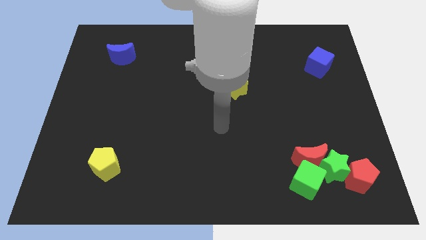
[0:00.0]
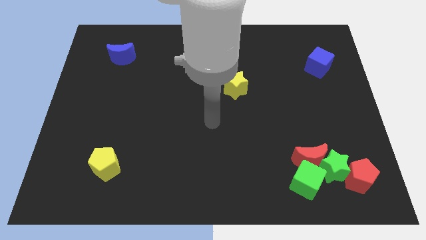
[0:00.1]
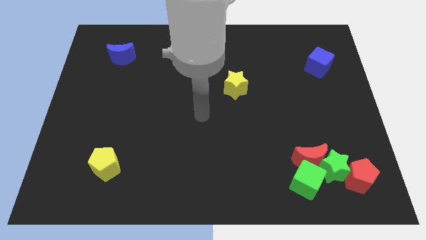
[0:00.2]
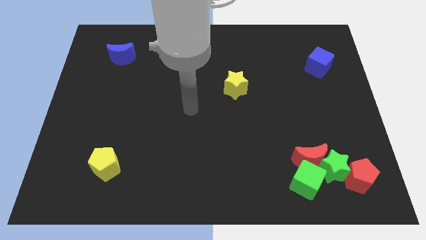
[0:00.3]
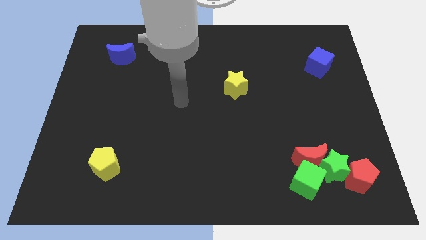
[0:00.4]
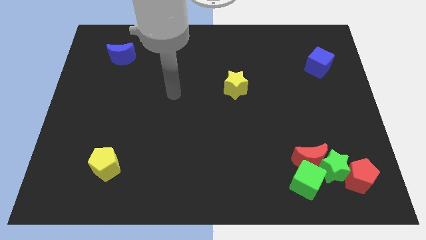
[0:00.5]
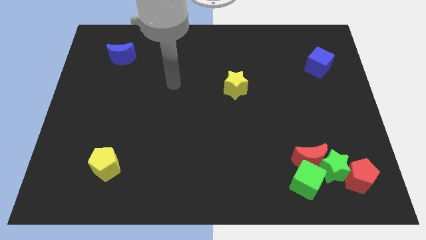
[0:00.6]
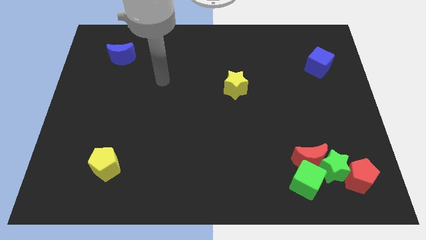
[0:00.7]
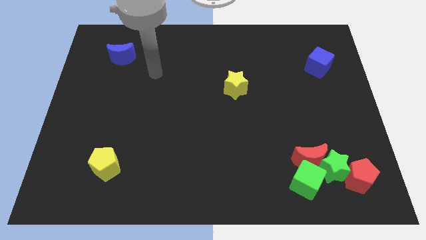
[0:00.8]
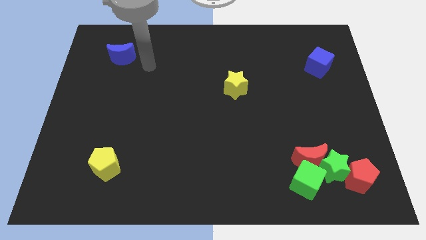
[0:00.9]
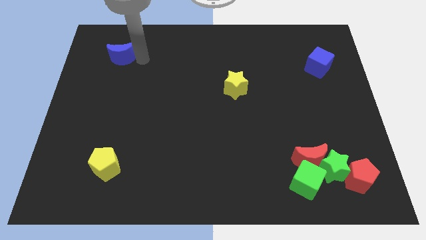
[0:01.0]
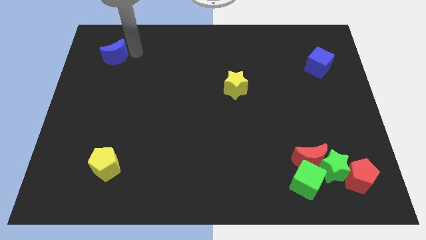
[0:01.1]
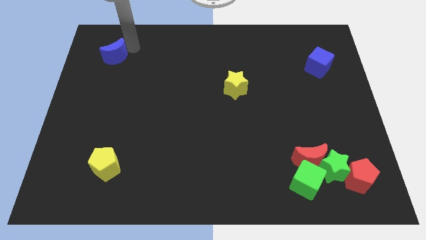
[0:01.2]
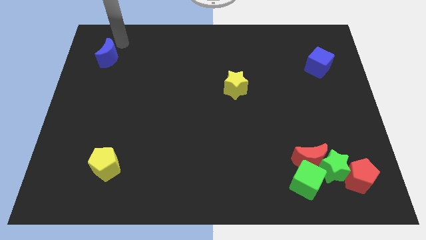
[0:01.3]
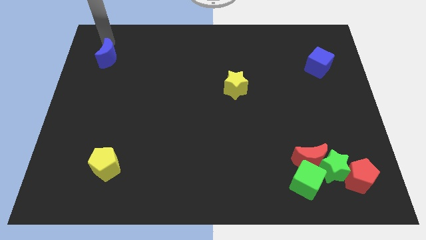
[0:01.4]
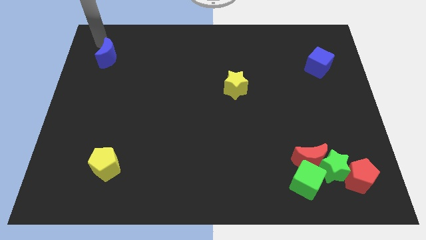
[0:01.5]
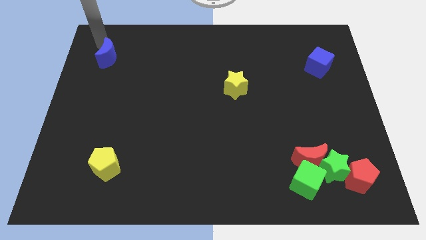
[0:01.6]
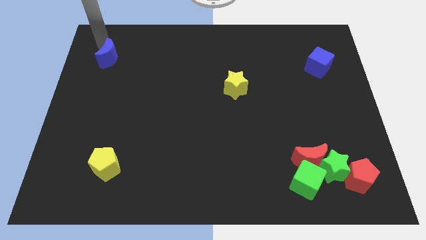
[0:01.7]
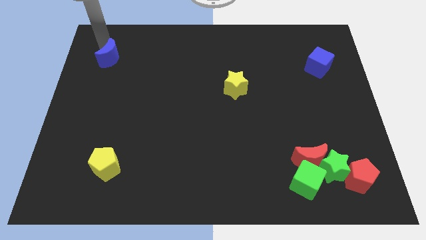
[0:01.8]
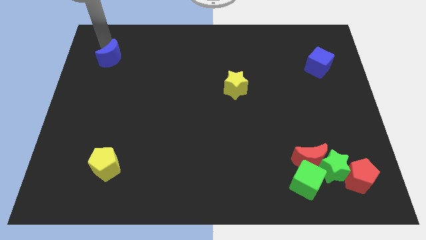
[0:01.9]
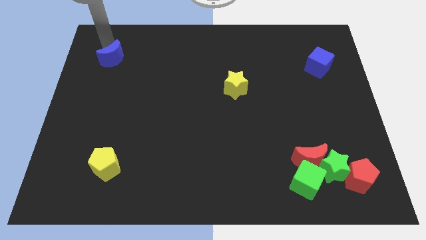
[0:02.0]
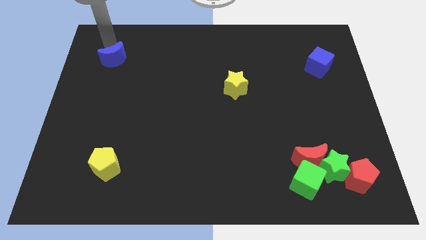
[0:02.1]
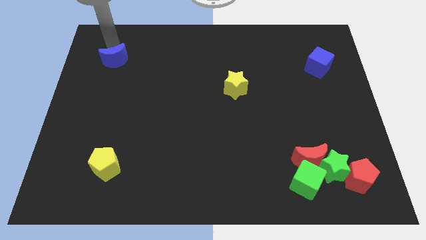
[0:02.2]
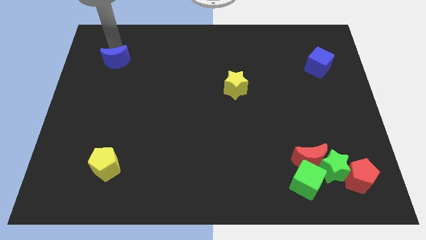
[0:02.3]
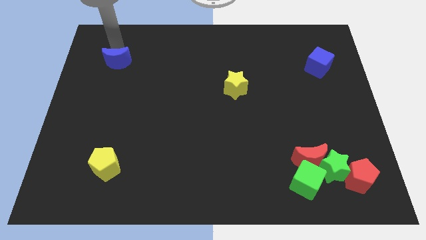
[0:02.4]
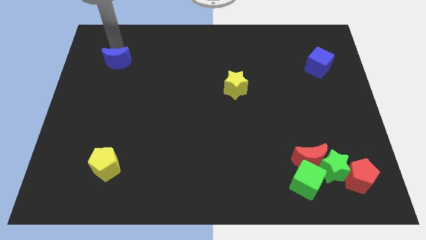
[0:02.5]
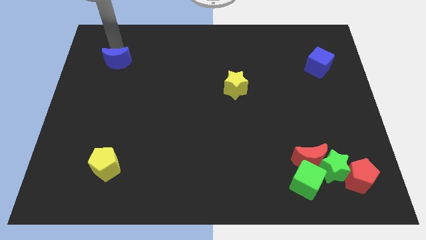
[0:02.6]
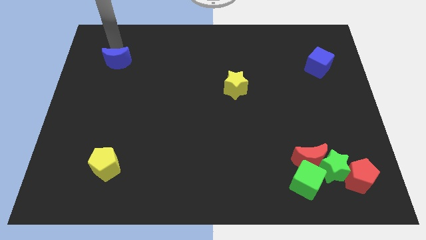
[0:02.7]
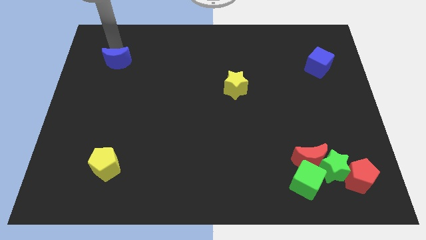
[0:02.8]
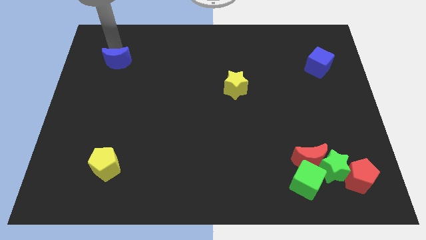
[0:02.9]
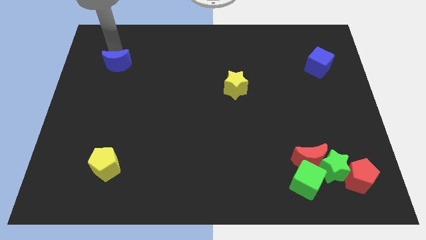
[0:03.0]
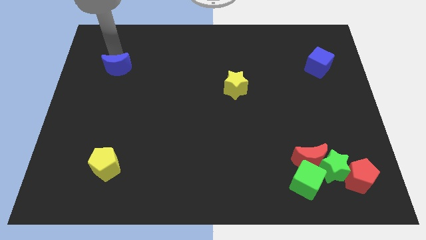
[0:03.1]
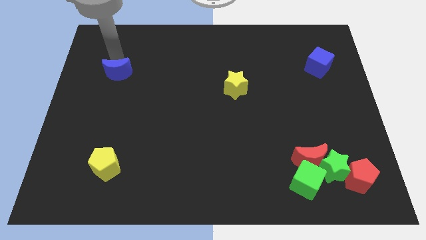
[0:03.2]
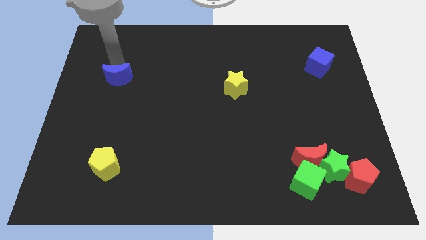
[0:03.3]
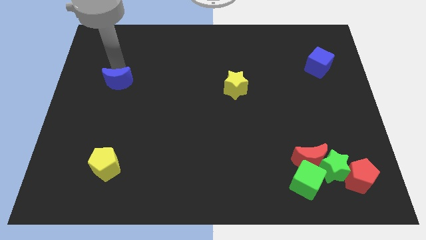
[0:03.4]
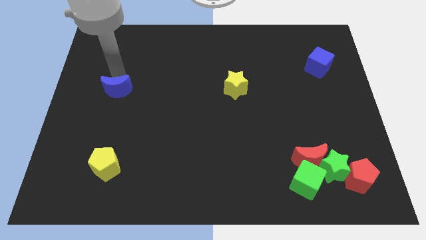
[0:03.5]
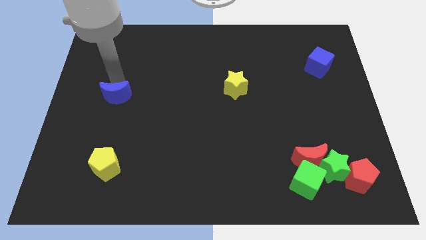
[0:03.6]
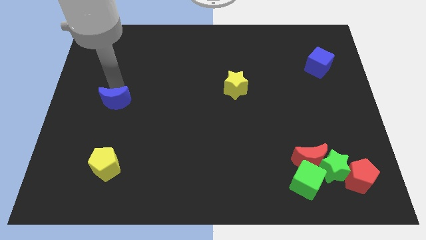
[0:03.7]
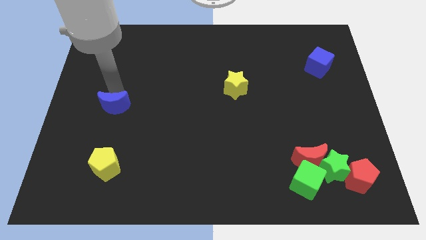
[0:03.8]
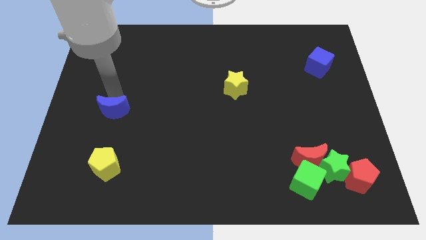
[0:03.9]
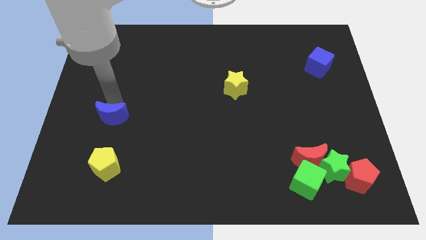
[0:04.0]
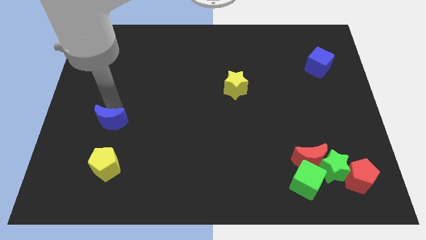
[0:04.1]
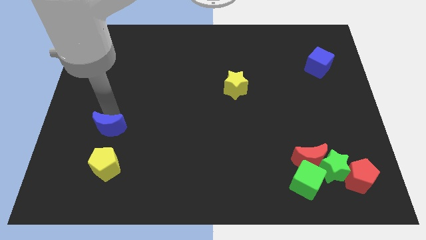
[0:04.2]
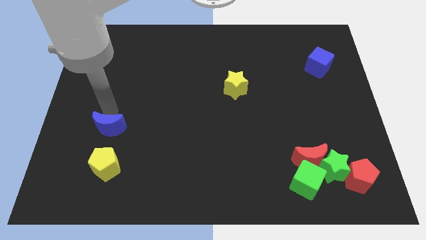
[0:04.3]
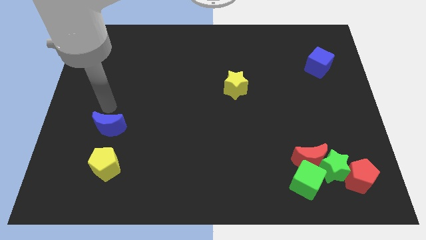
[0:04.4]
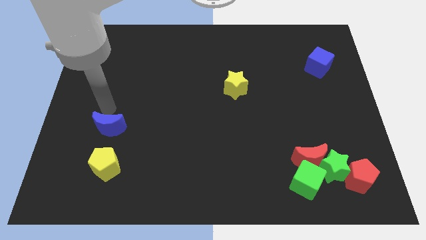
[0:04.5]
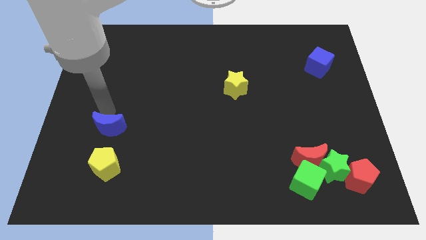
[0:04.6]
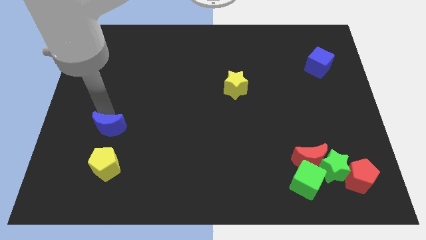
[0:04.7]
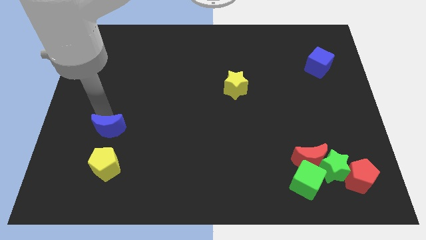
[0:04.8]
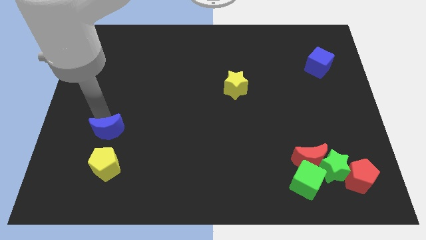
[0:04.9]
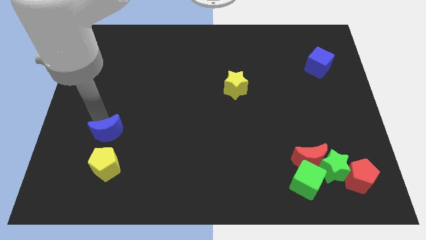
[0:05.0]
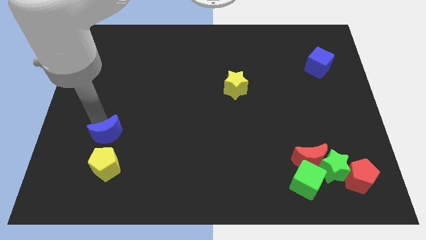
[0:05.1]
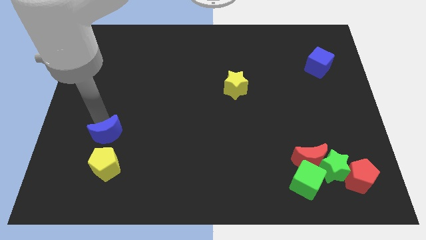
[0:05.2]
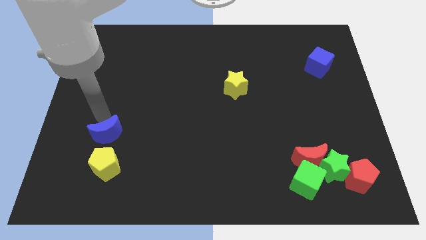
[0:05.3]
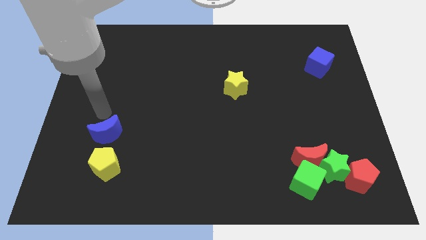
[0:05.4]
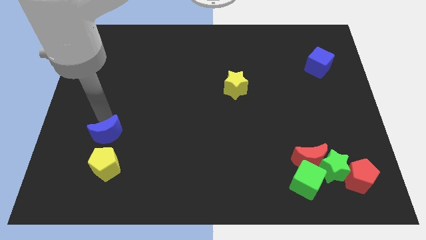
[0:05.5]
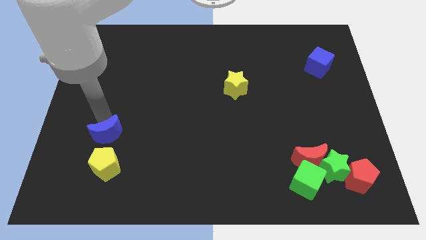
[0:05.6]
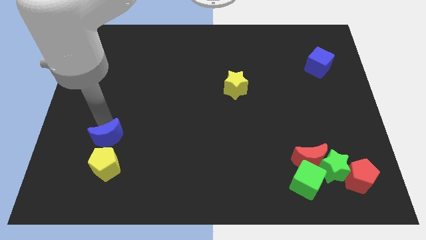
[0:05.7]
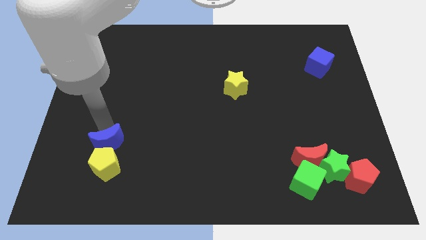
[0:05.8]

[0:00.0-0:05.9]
put the blue moon close to the yellow pentagon

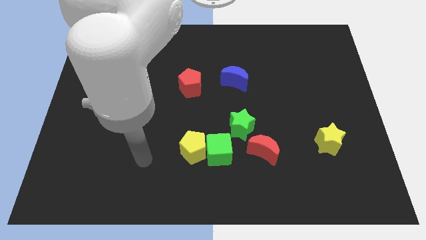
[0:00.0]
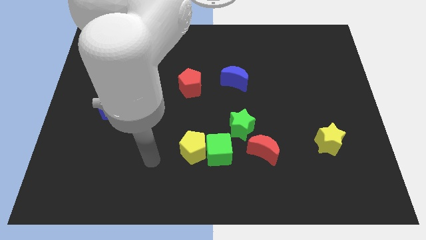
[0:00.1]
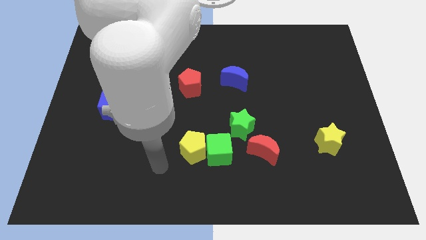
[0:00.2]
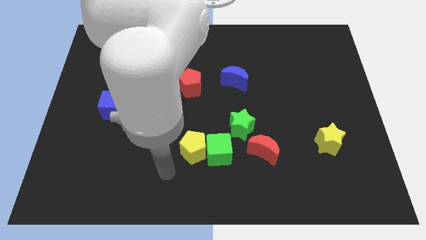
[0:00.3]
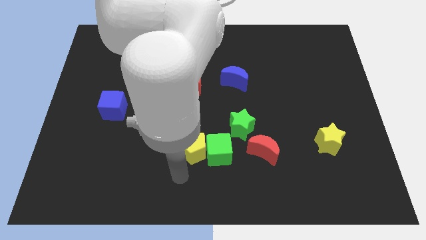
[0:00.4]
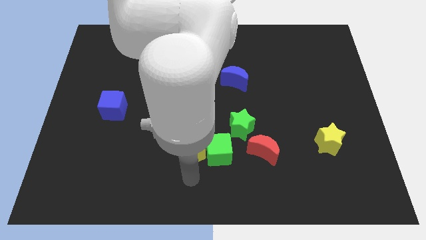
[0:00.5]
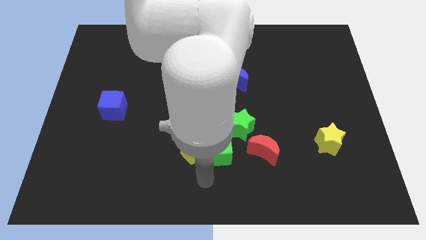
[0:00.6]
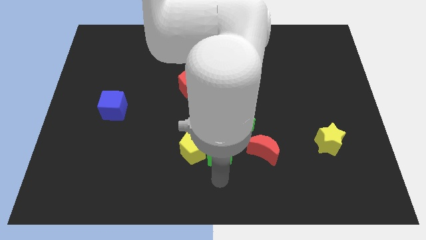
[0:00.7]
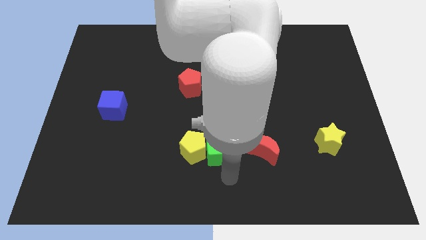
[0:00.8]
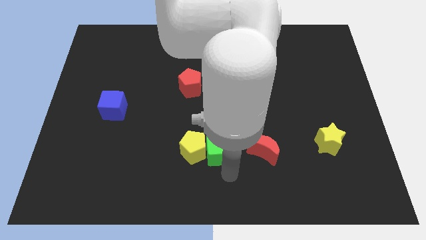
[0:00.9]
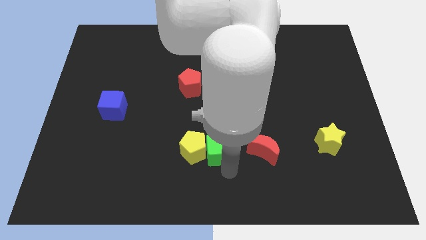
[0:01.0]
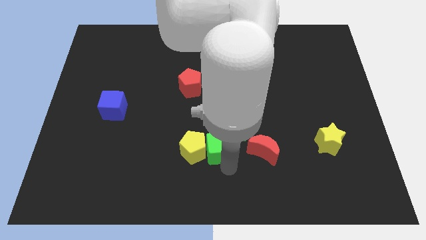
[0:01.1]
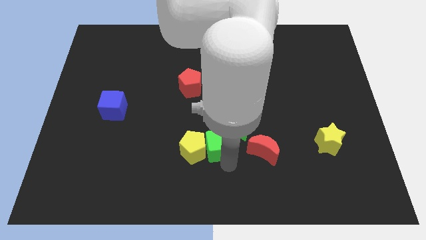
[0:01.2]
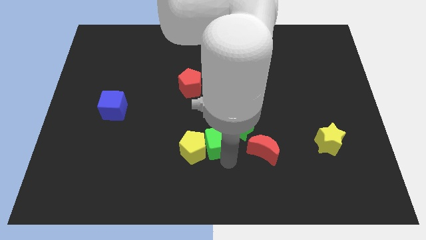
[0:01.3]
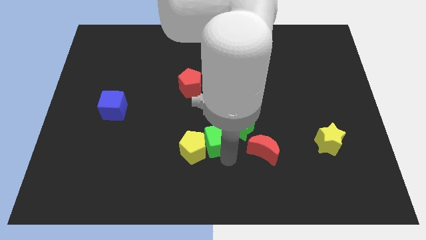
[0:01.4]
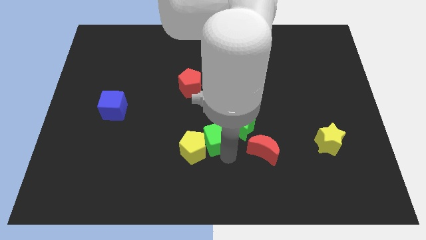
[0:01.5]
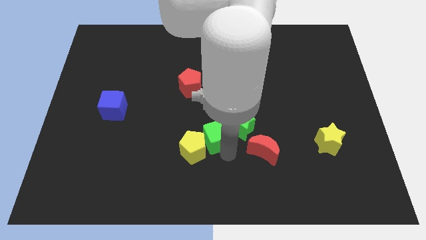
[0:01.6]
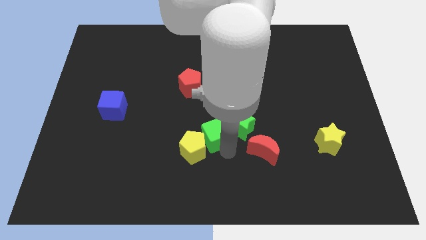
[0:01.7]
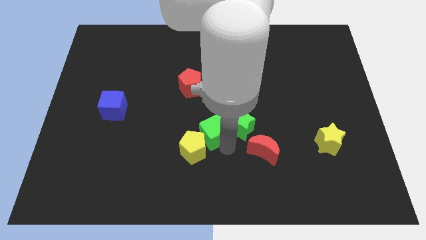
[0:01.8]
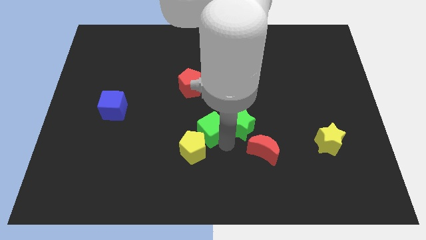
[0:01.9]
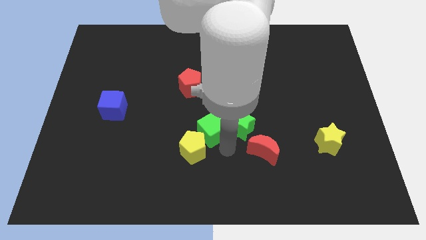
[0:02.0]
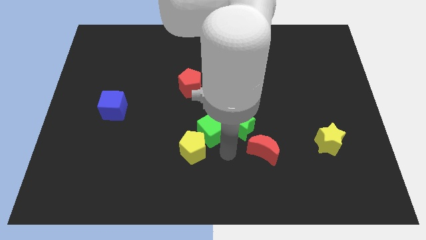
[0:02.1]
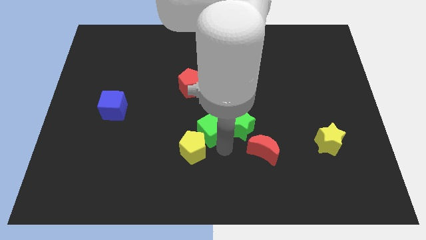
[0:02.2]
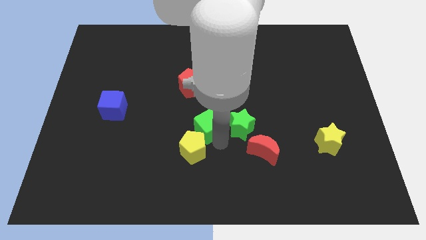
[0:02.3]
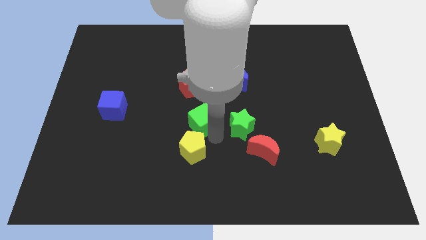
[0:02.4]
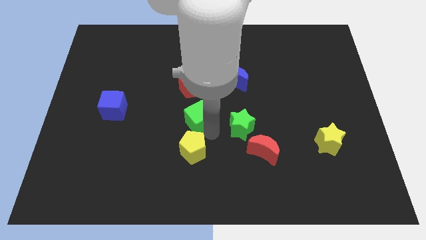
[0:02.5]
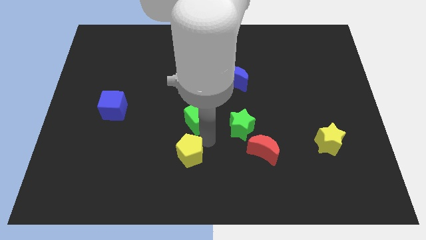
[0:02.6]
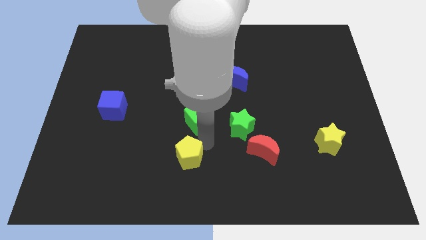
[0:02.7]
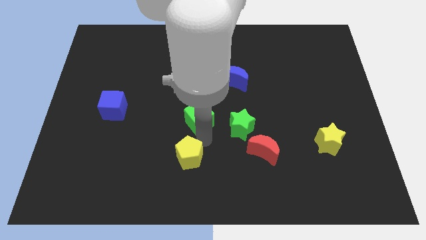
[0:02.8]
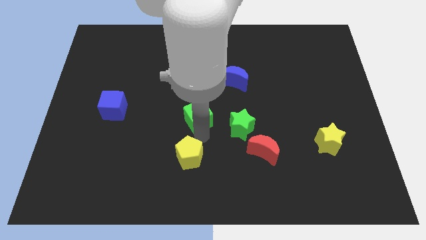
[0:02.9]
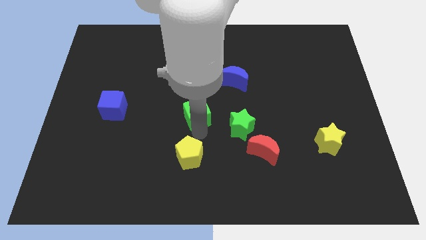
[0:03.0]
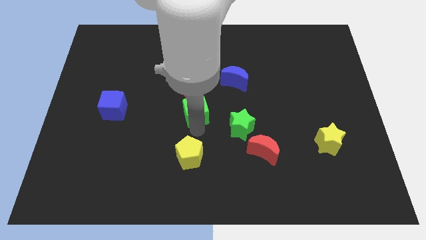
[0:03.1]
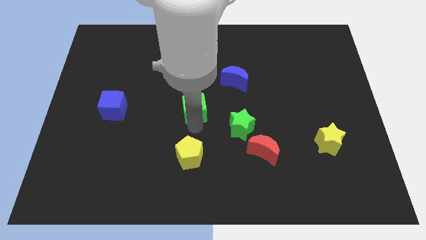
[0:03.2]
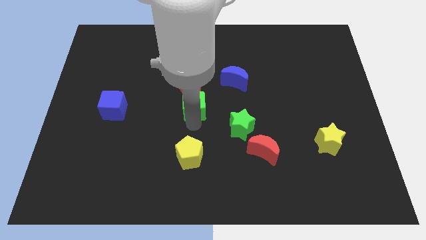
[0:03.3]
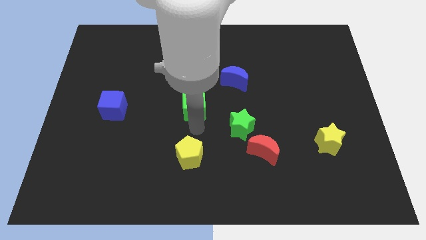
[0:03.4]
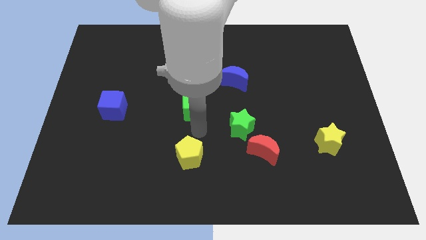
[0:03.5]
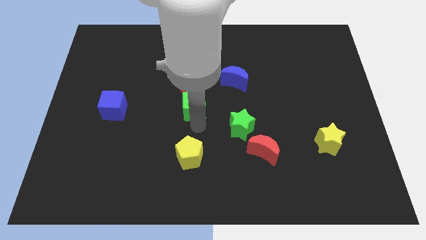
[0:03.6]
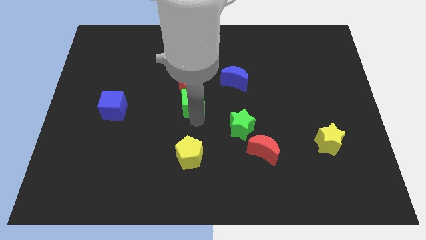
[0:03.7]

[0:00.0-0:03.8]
put the green cube next to the red pentagon
